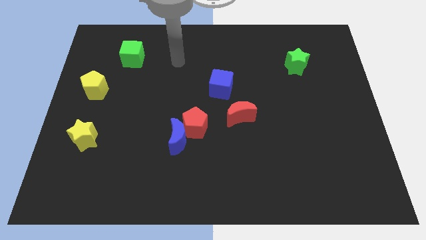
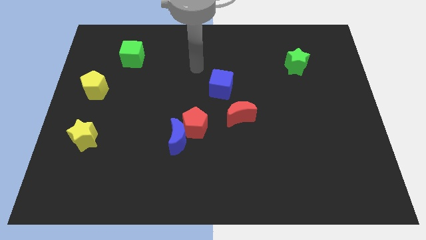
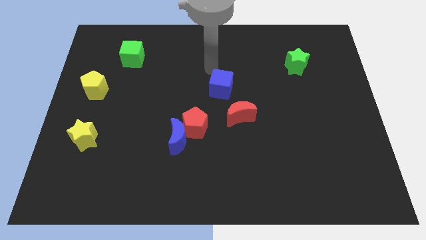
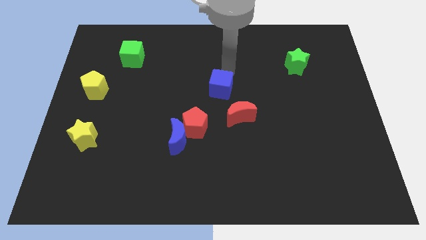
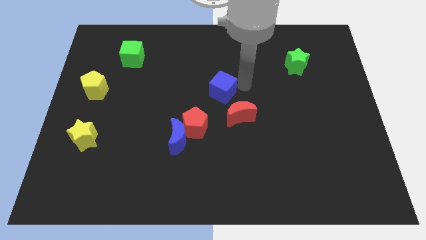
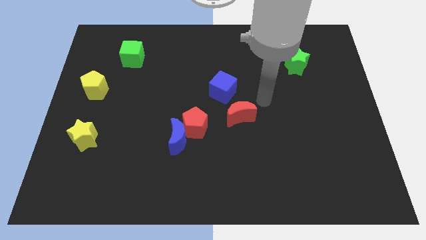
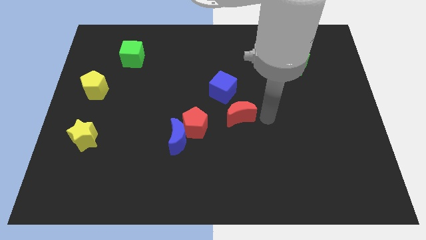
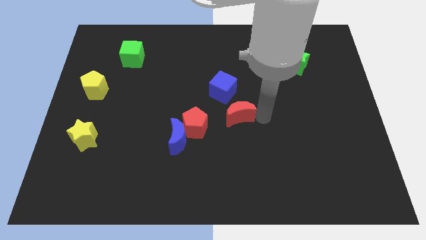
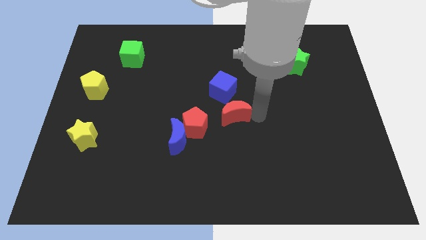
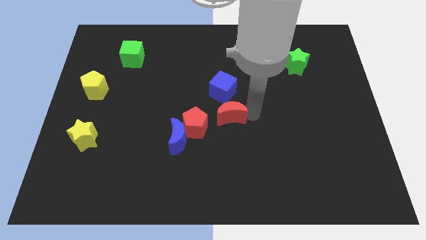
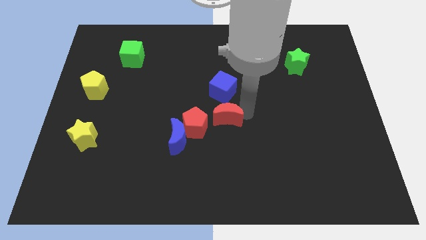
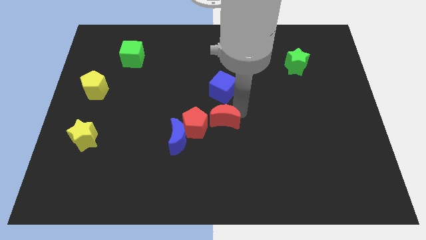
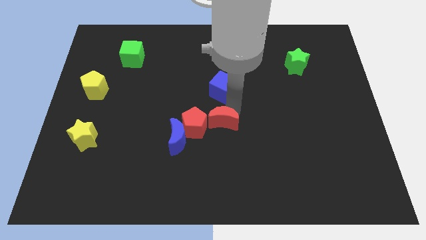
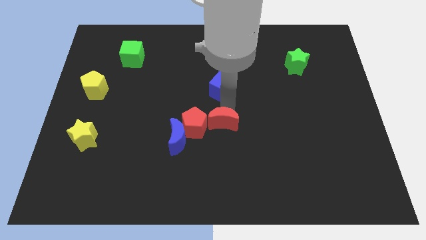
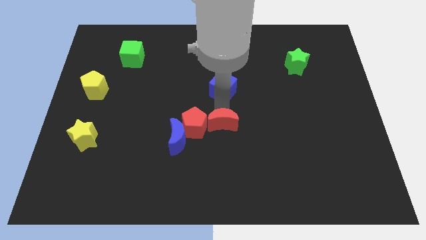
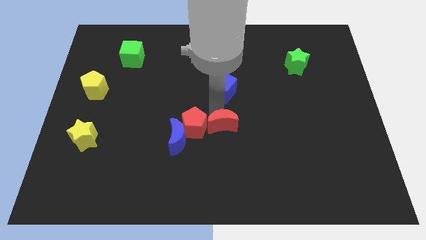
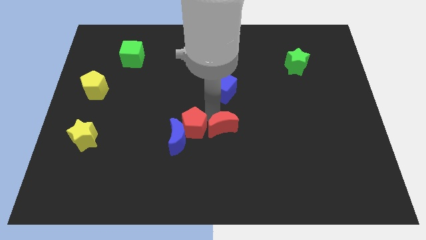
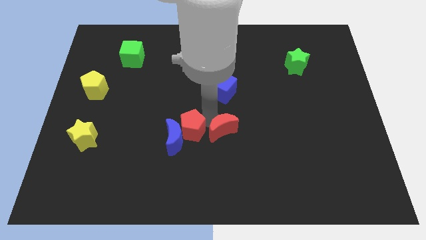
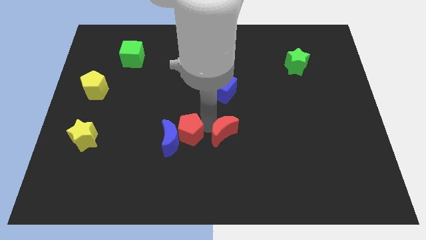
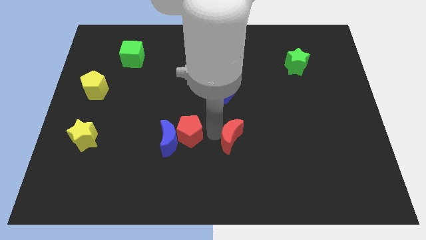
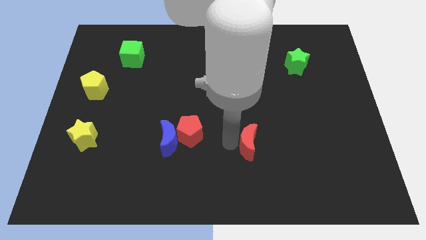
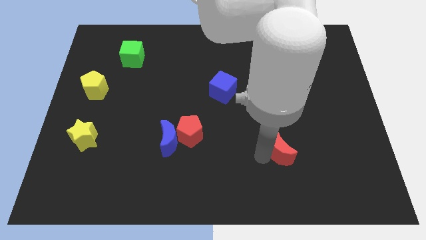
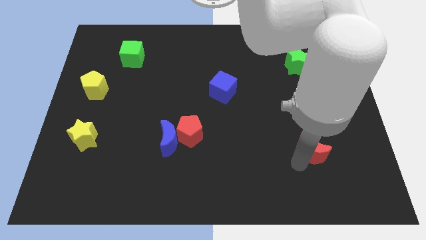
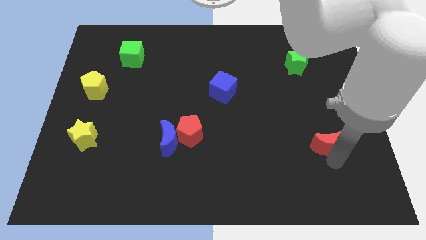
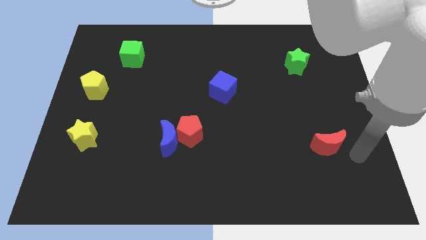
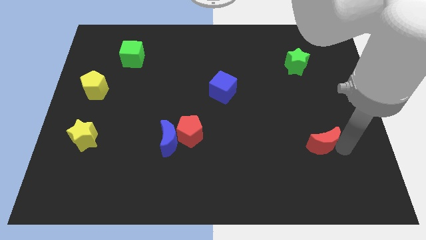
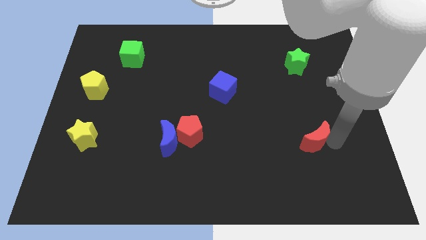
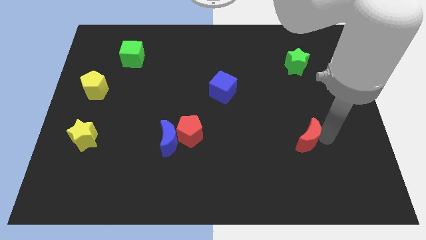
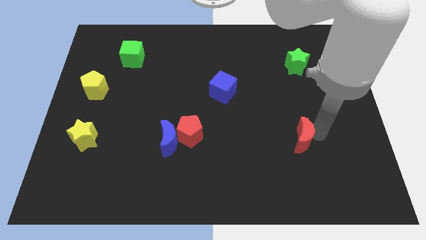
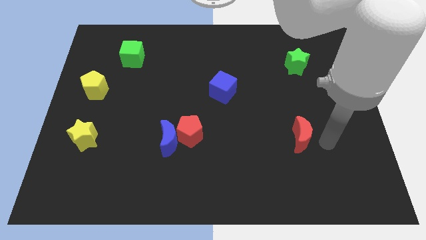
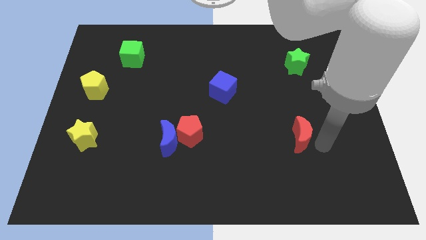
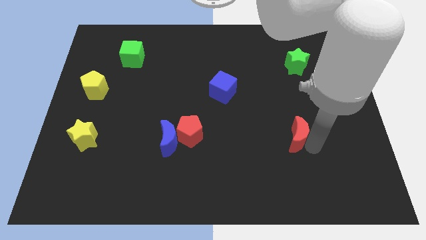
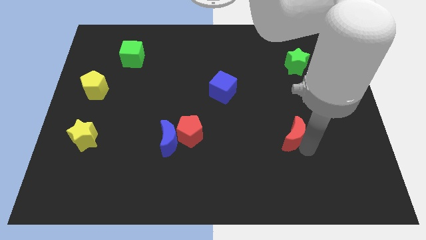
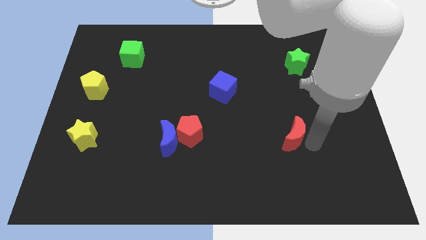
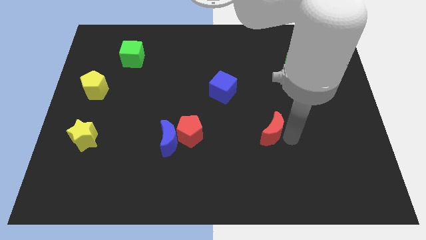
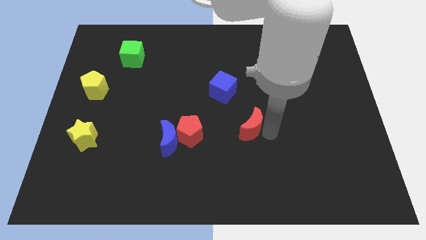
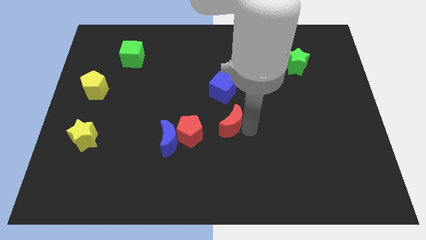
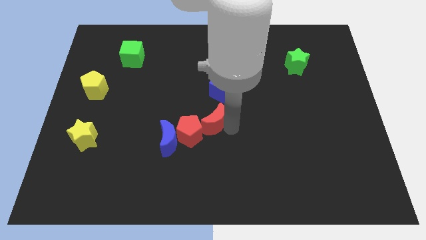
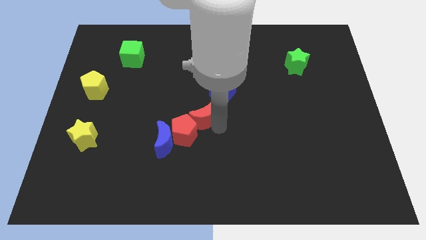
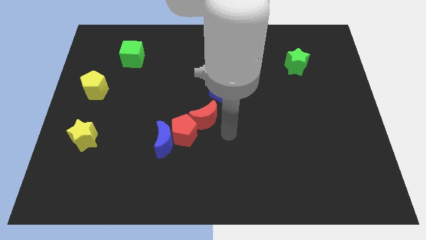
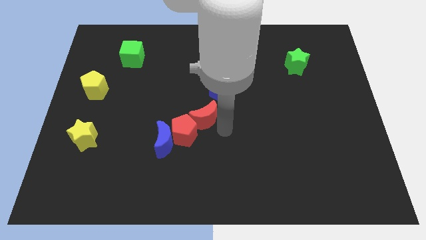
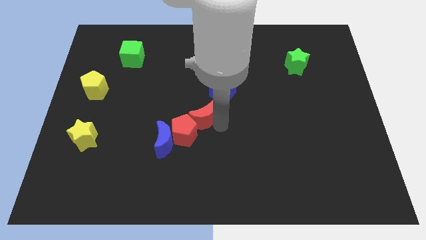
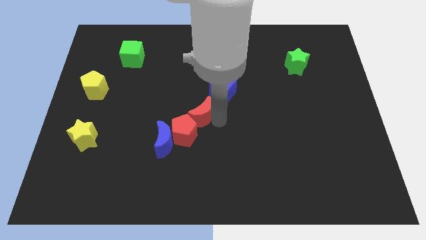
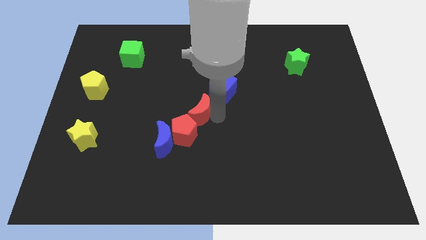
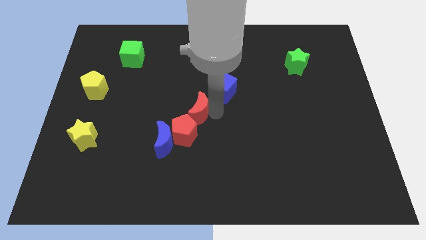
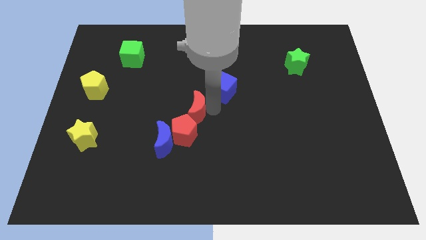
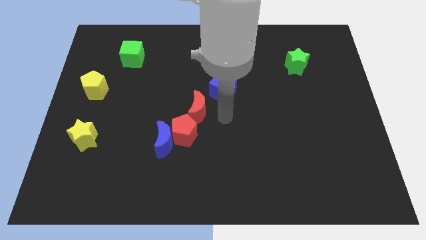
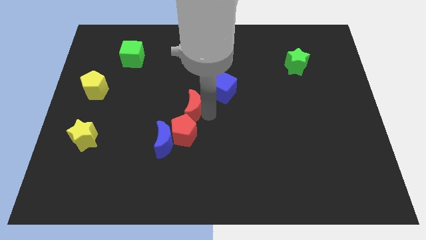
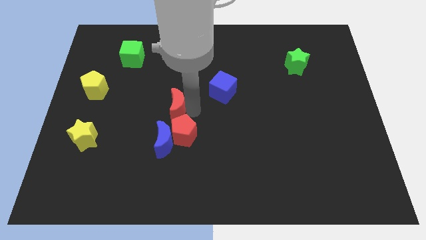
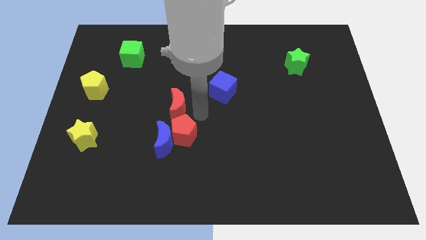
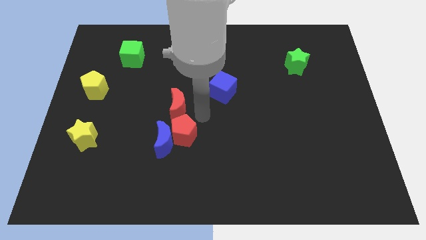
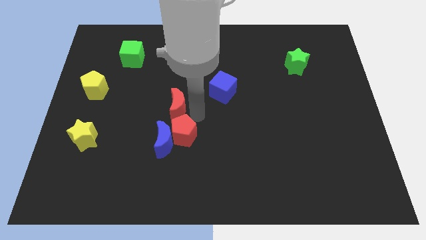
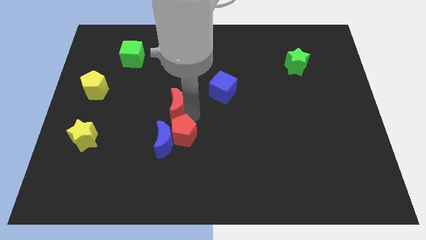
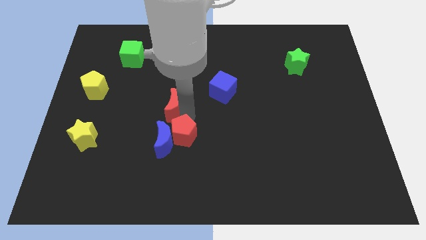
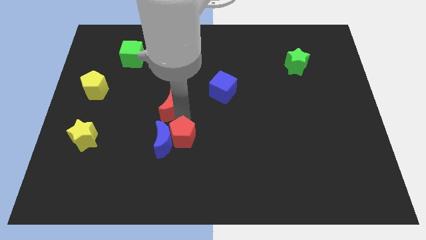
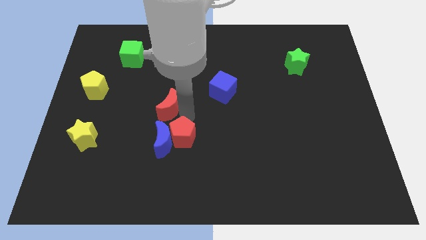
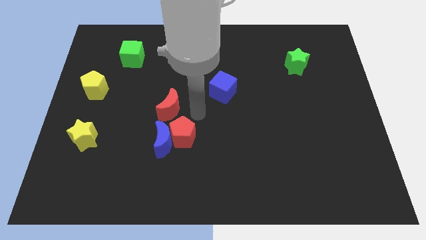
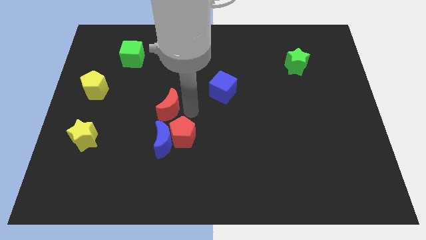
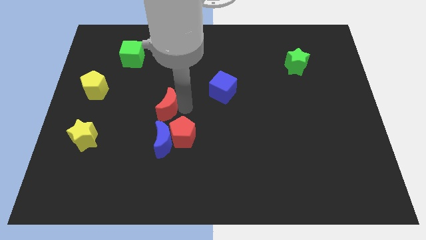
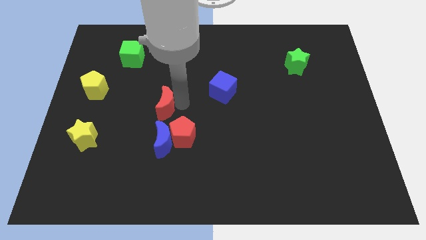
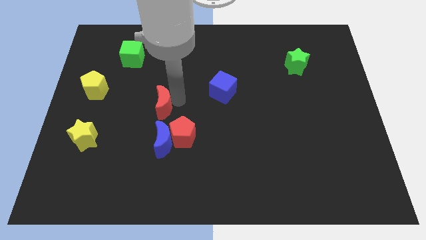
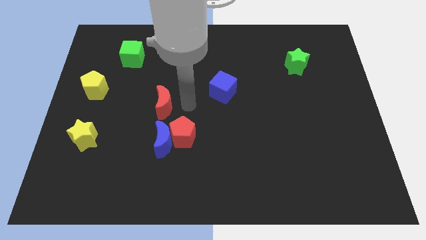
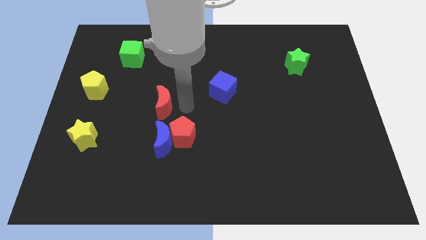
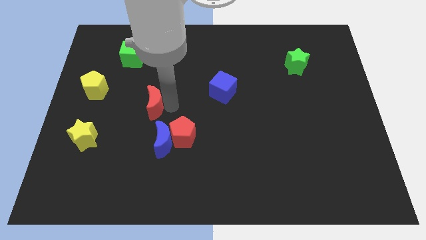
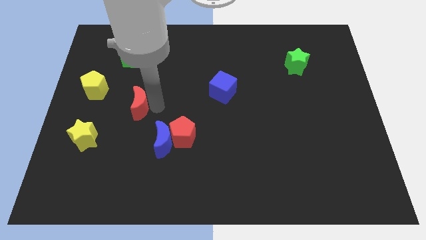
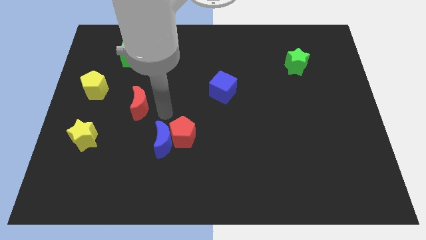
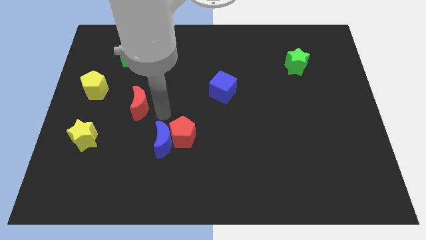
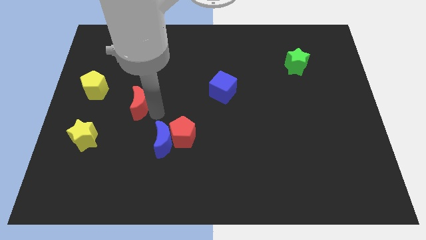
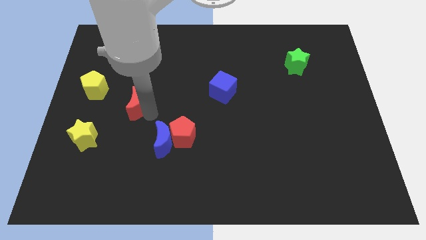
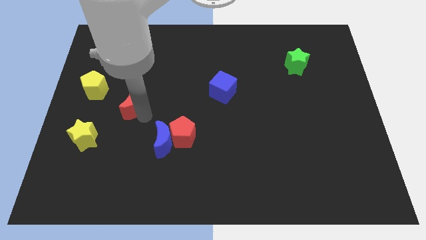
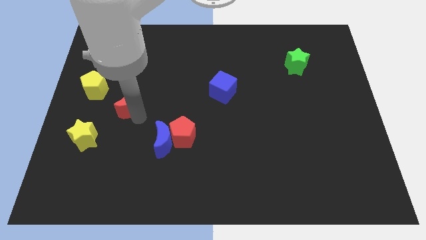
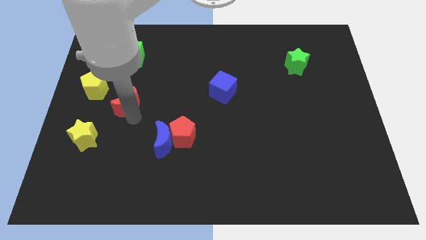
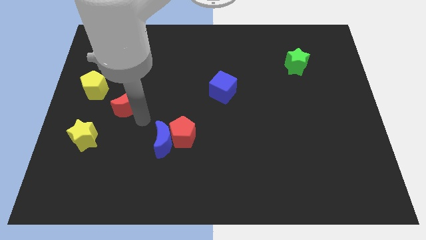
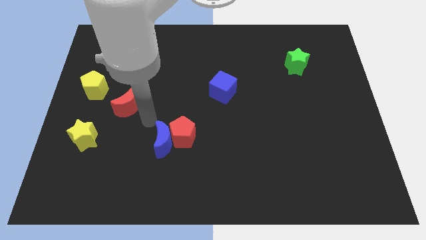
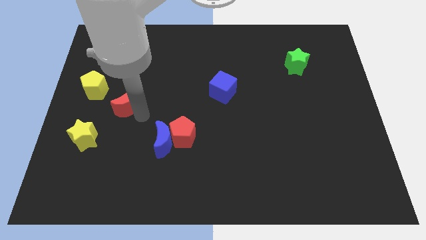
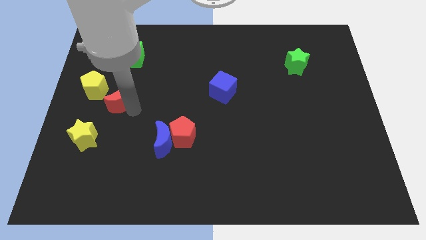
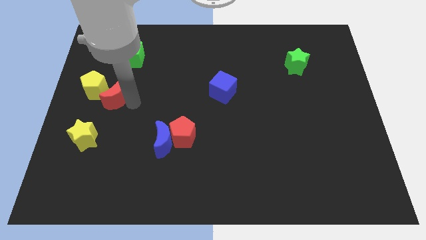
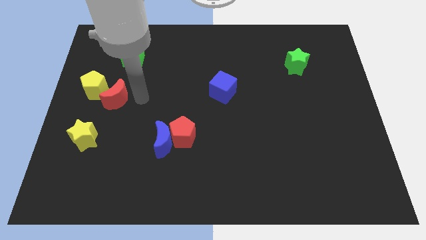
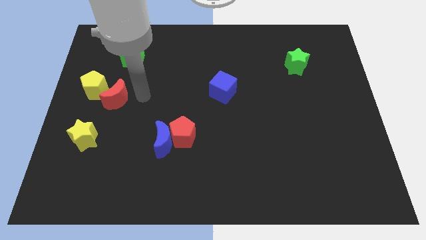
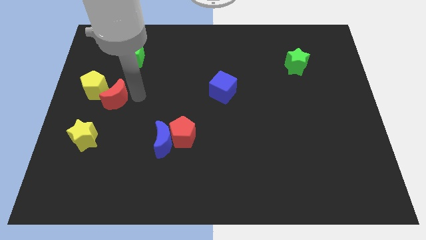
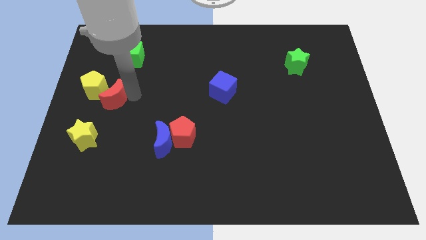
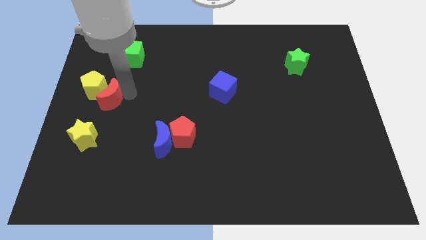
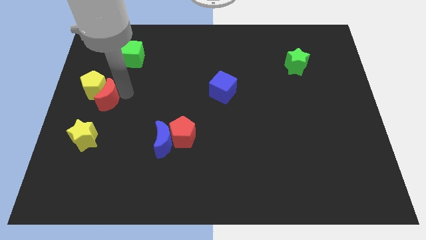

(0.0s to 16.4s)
move the red moon to the left side
